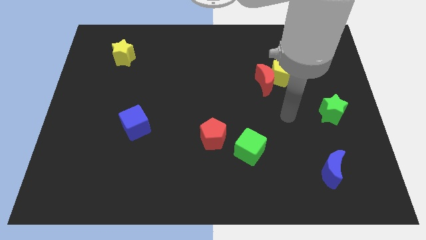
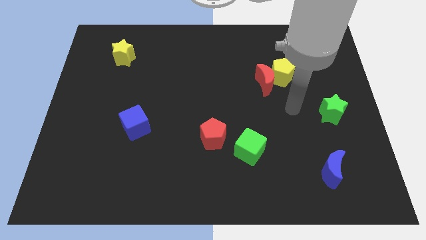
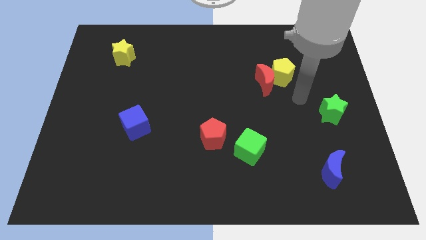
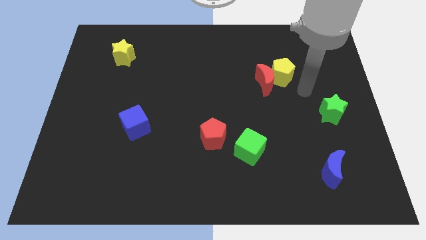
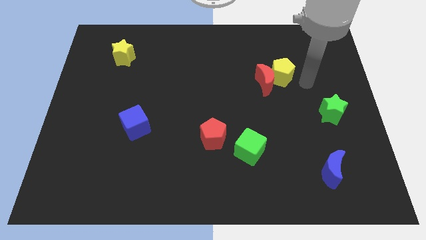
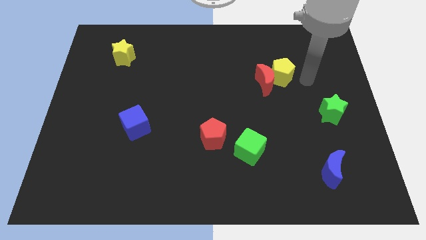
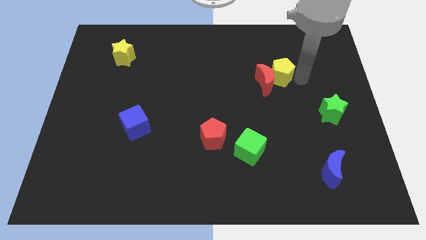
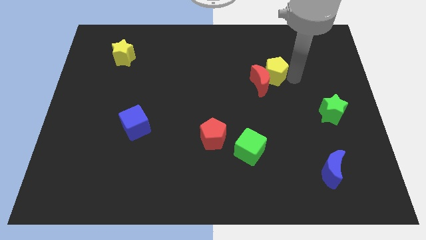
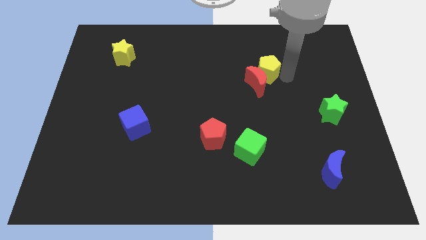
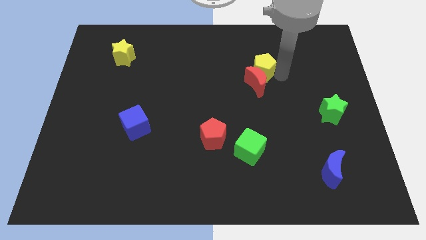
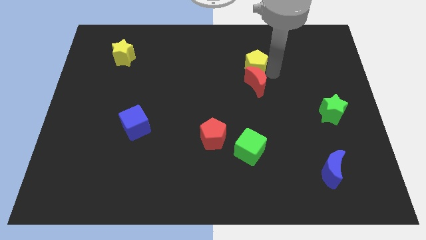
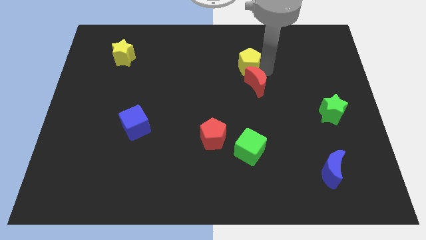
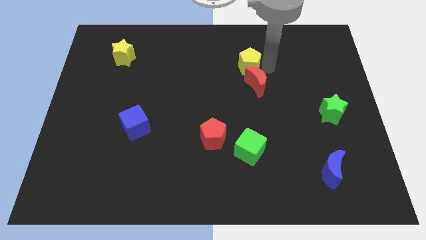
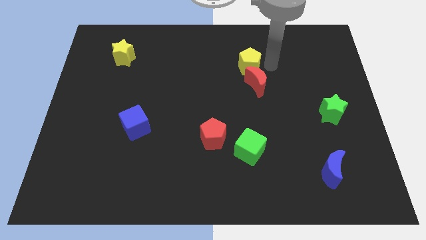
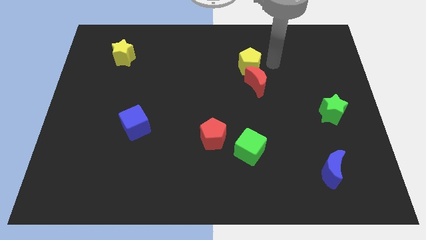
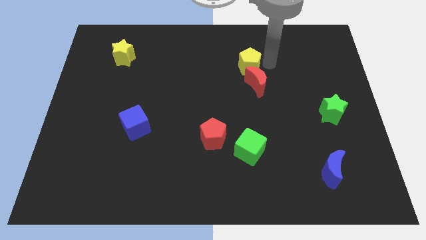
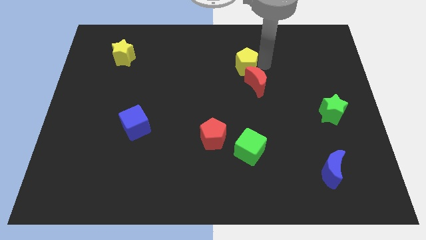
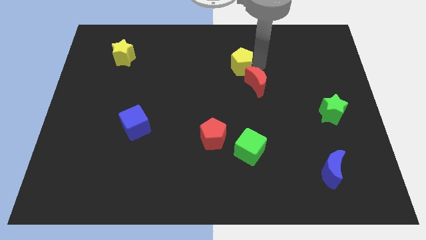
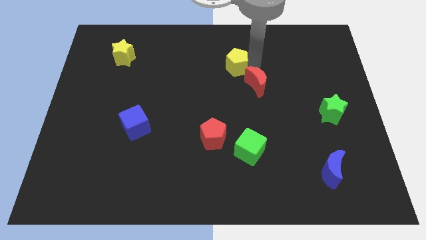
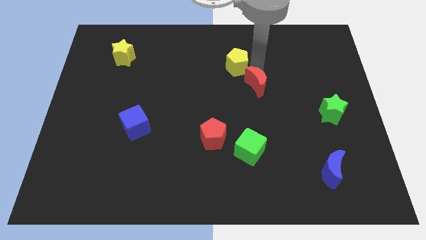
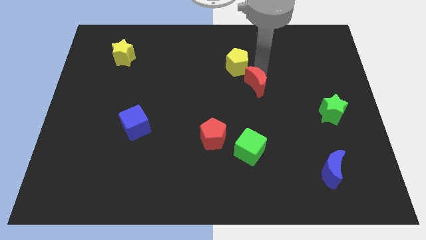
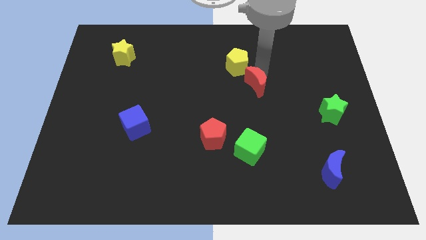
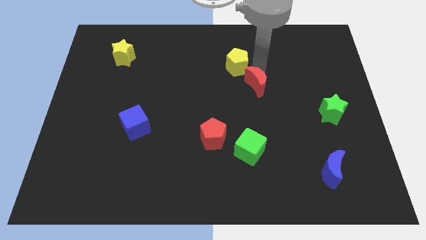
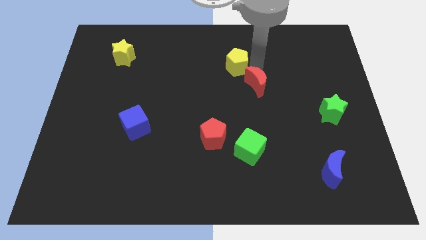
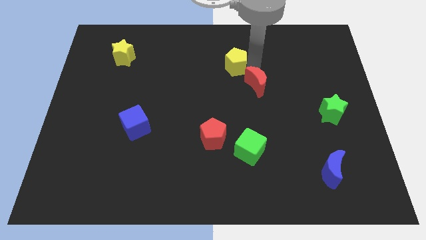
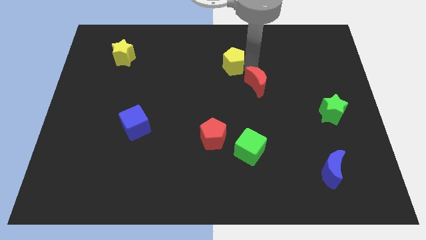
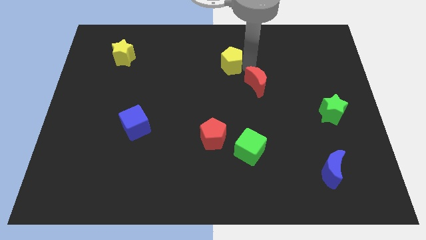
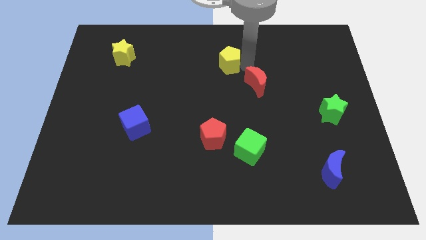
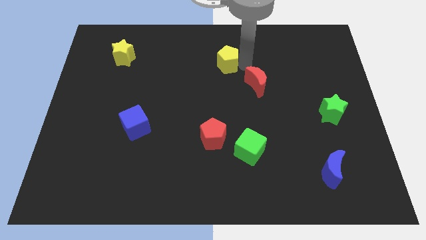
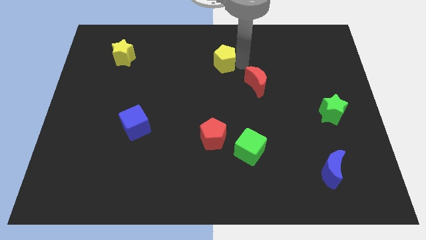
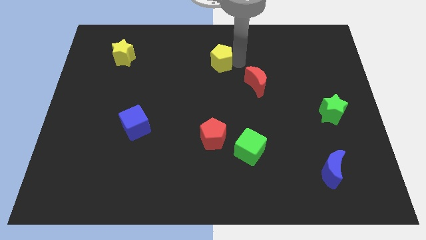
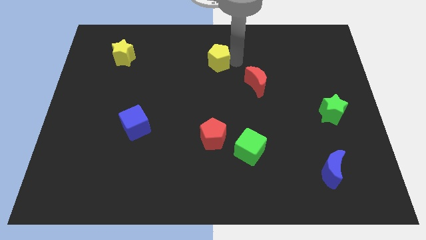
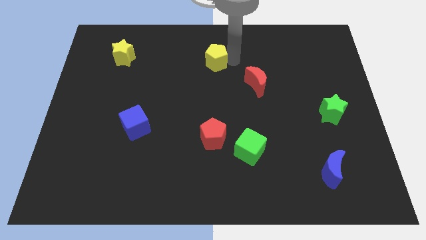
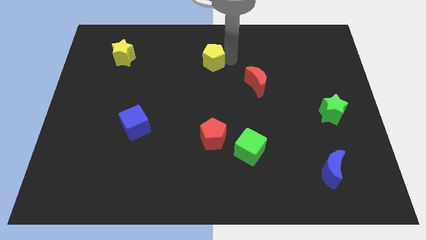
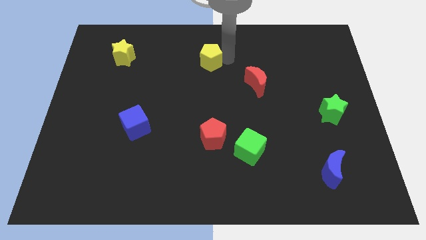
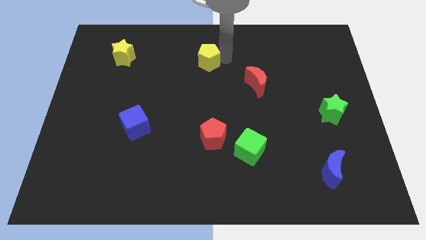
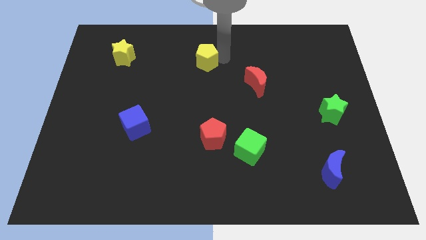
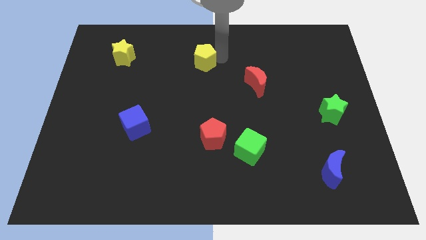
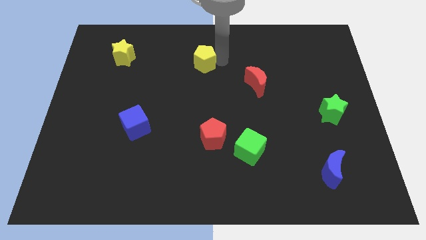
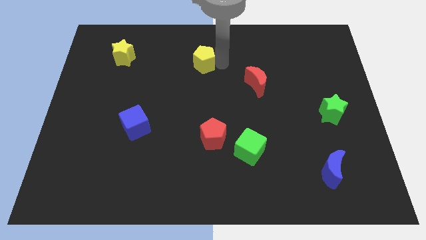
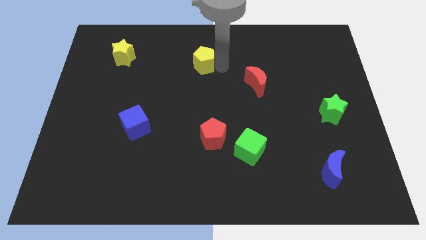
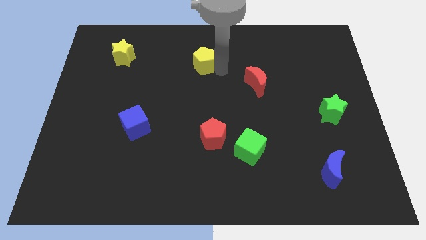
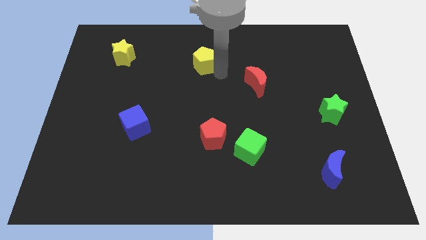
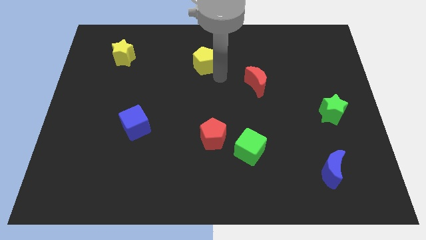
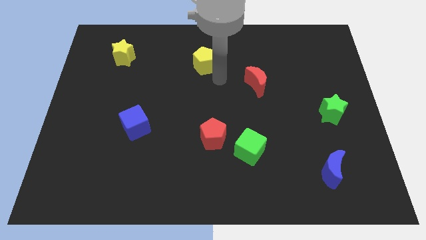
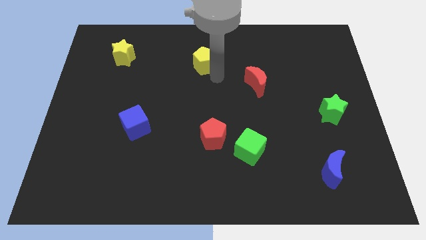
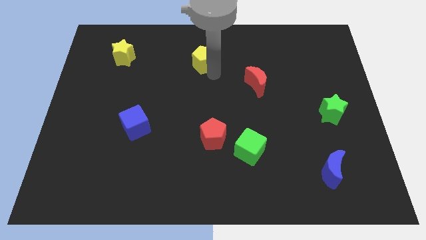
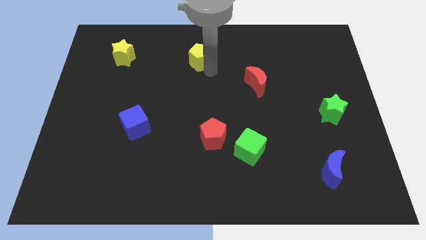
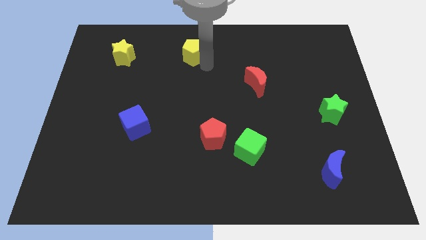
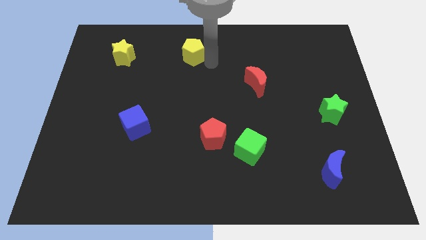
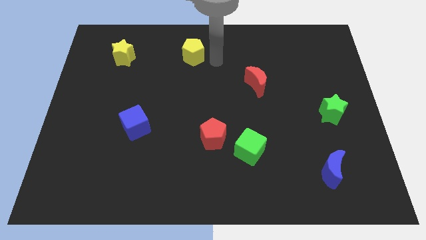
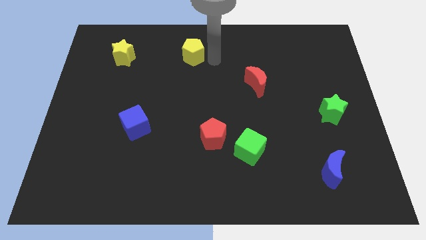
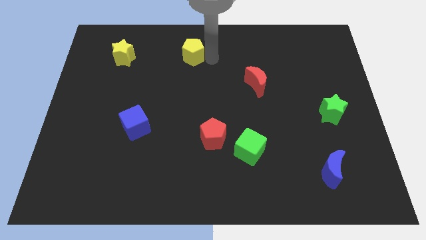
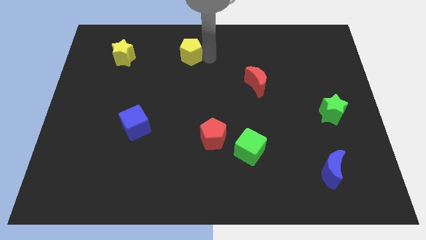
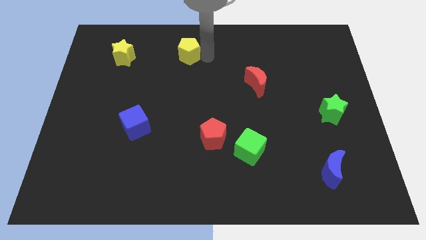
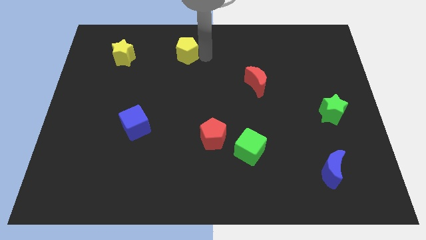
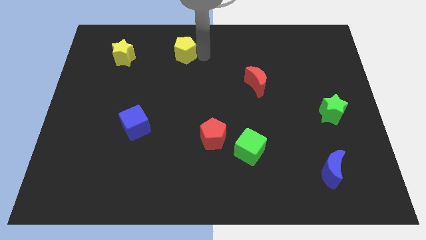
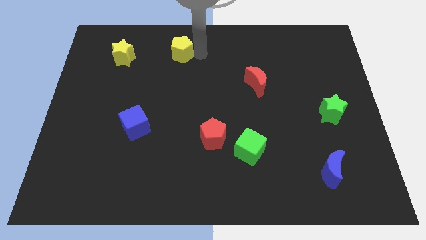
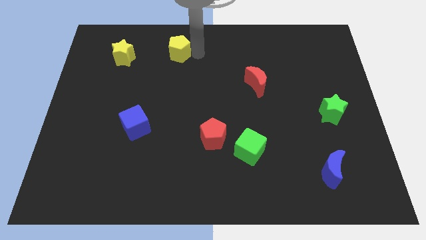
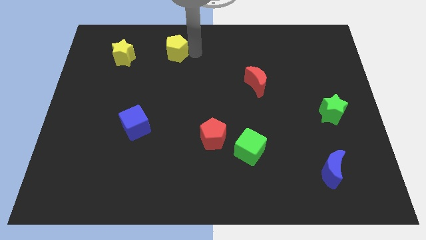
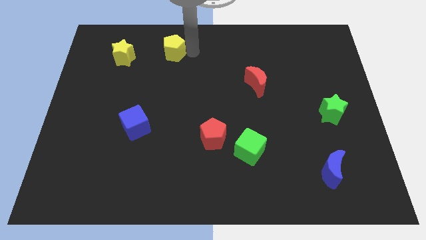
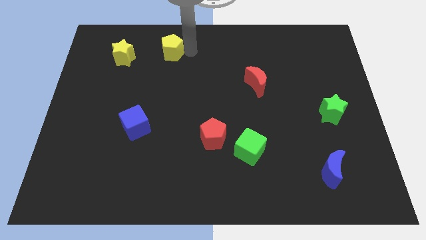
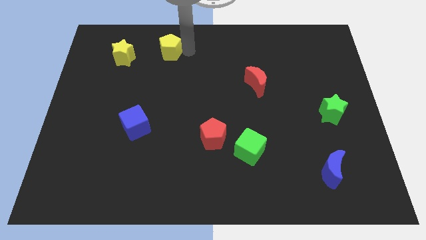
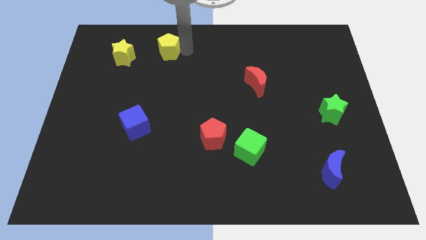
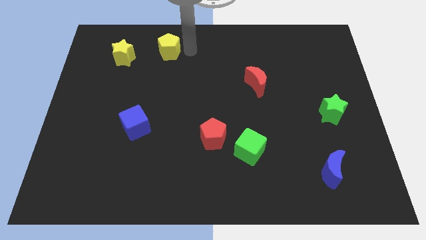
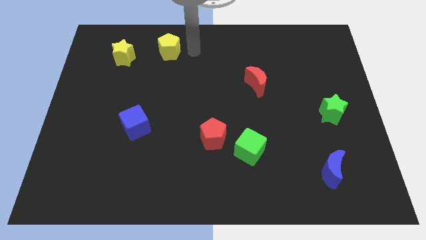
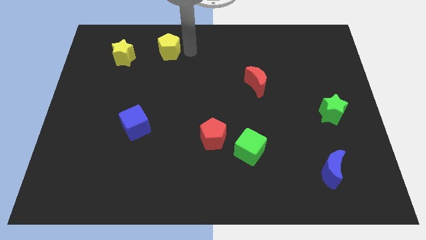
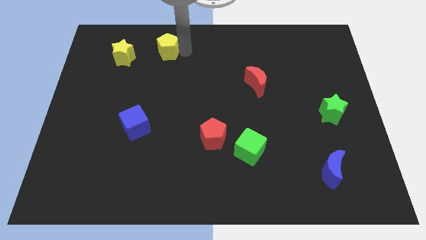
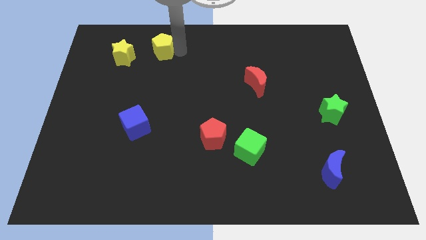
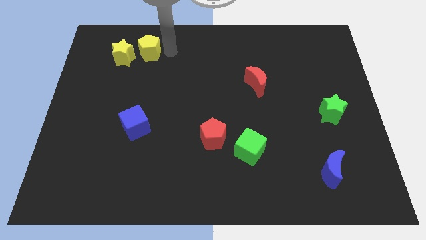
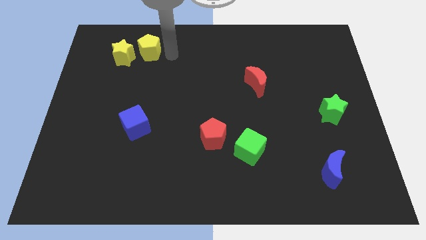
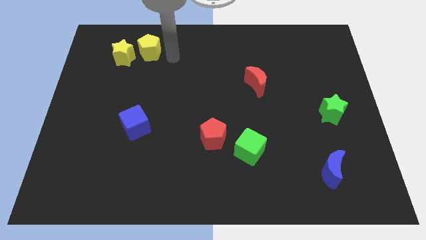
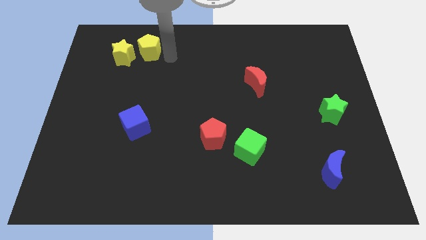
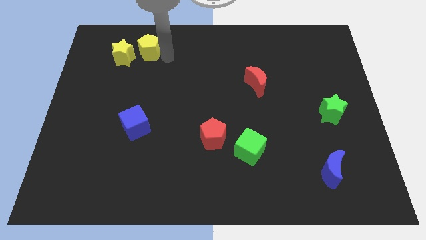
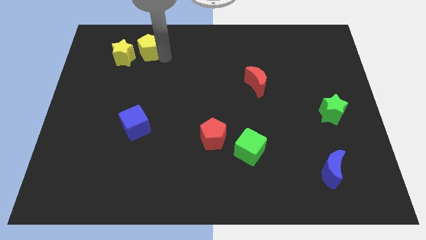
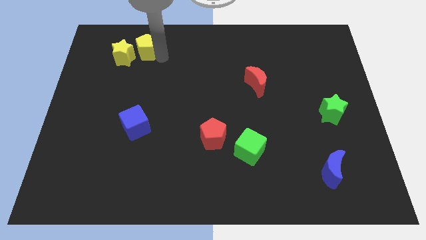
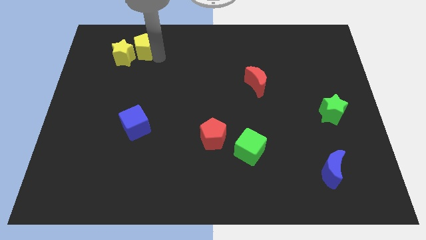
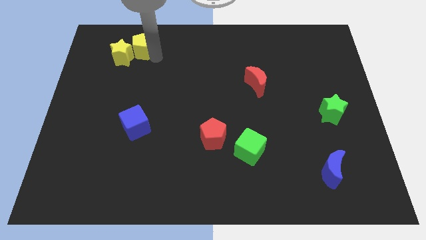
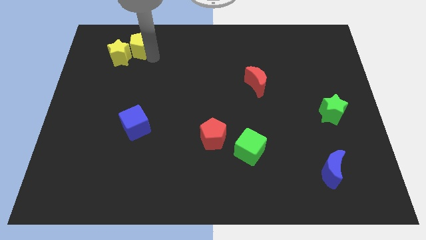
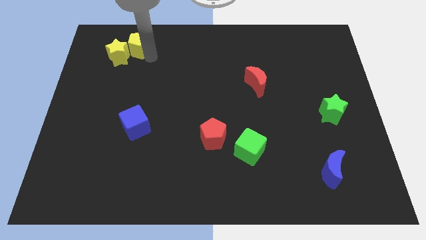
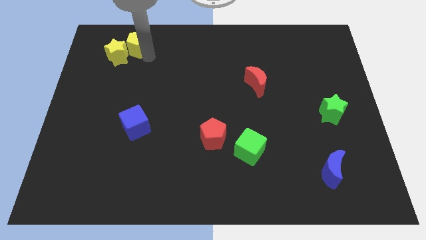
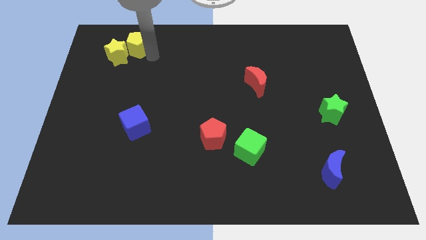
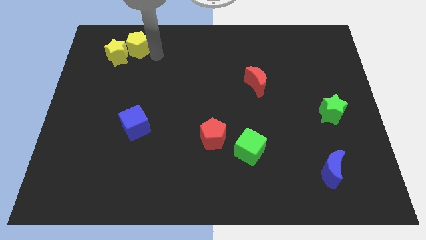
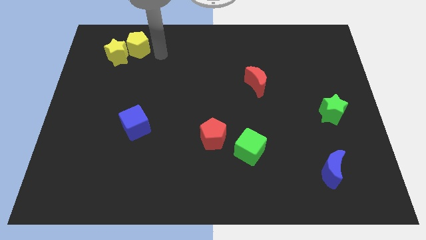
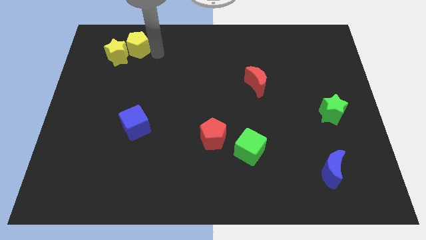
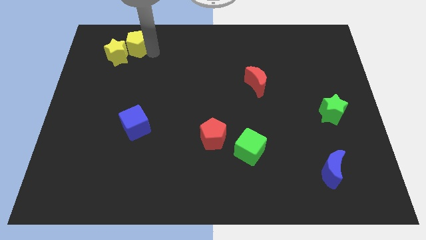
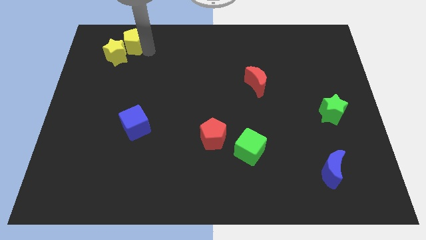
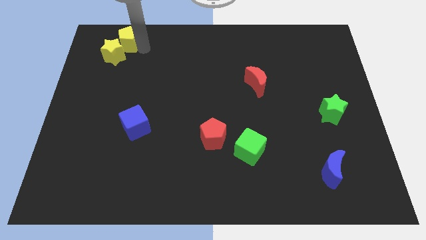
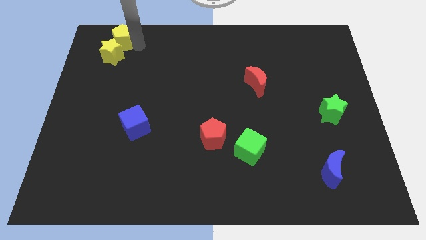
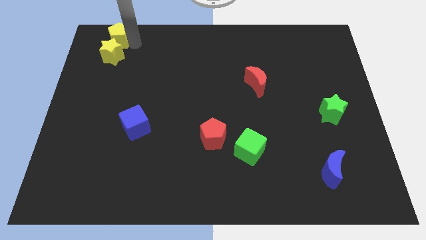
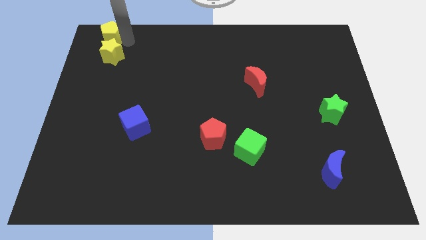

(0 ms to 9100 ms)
put the yellow pentagon to the top left of the board
